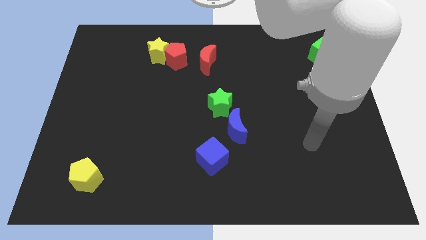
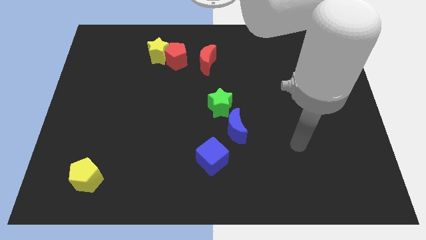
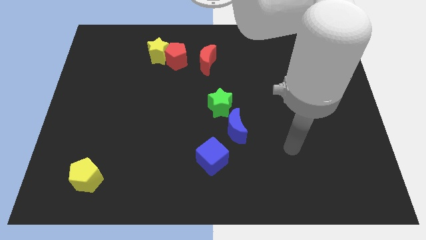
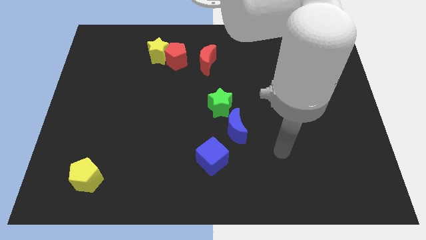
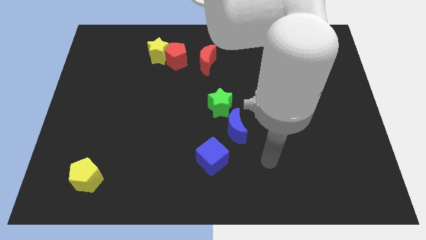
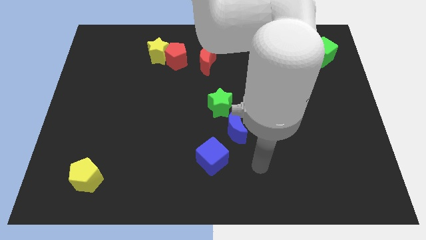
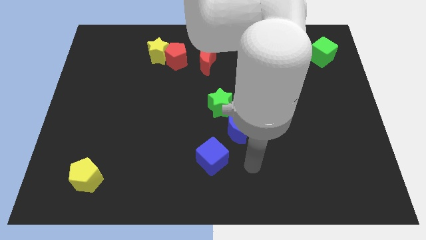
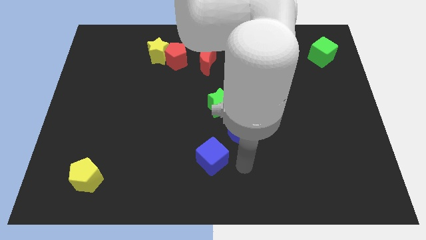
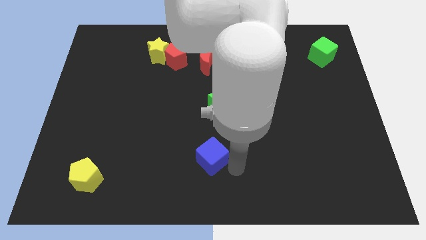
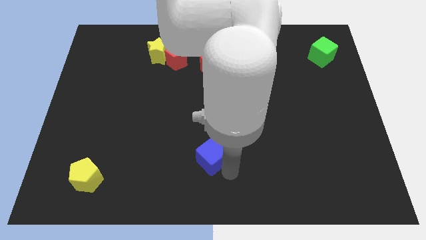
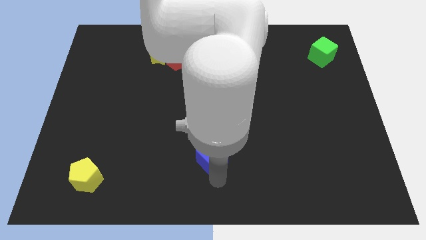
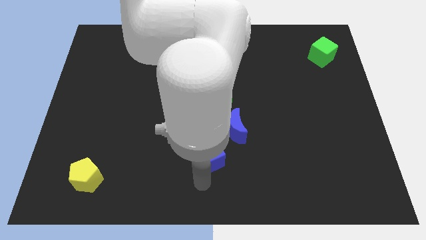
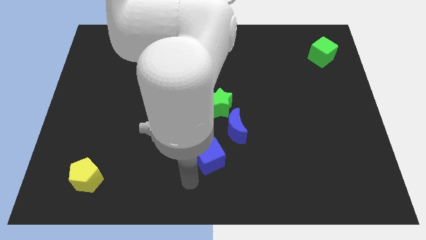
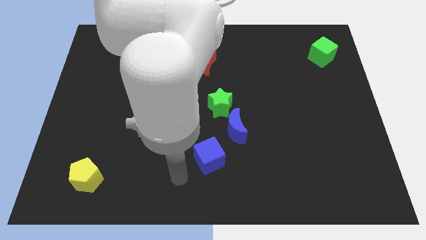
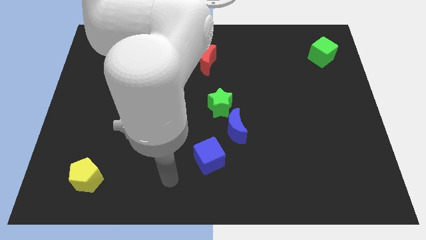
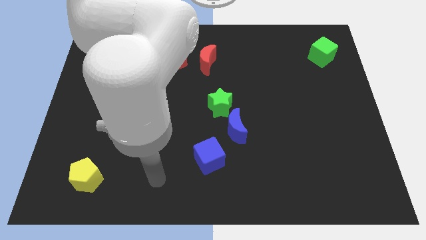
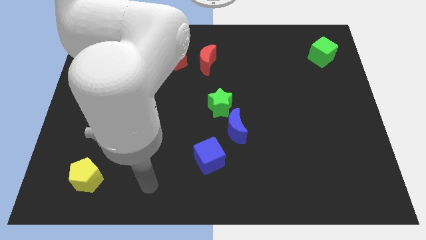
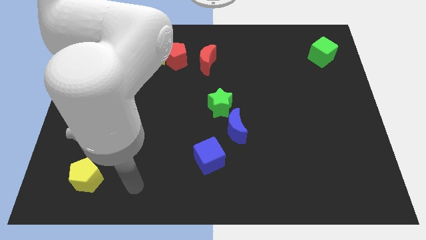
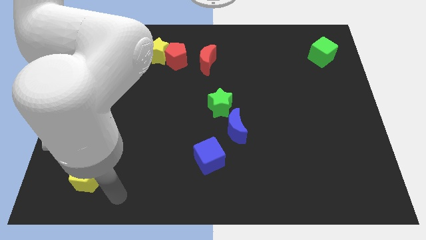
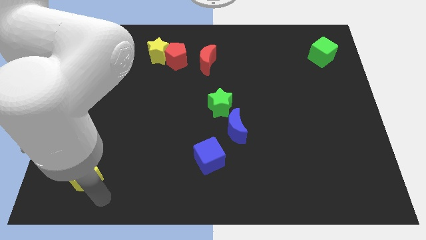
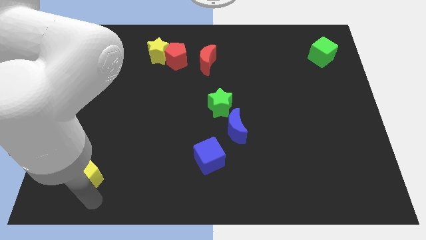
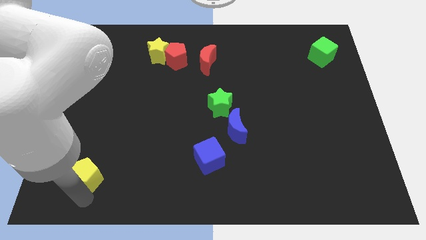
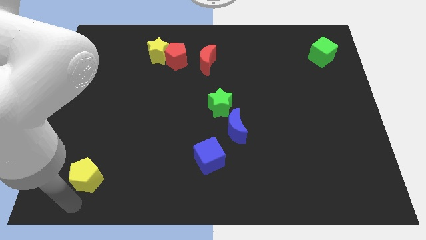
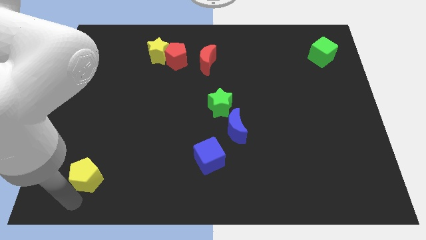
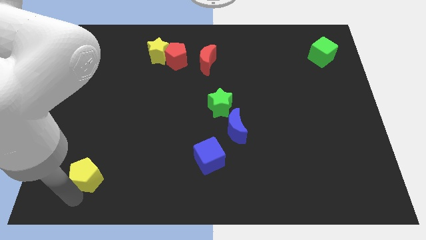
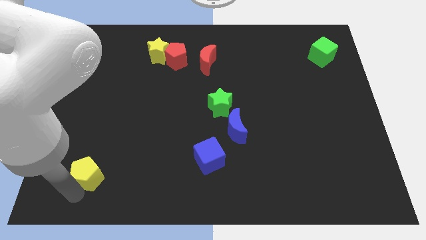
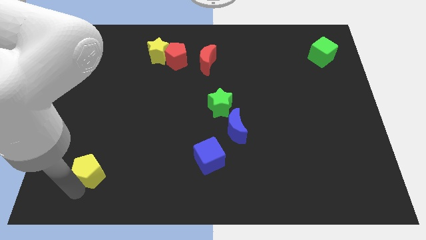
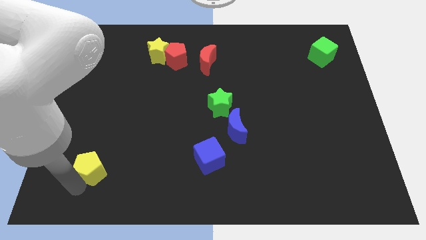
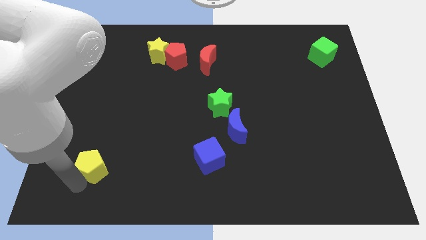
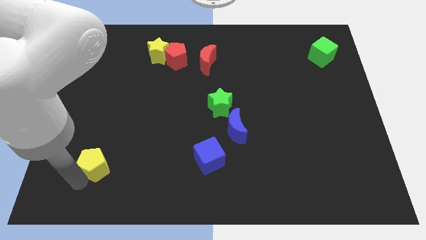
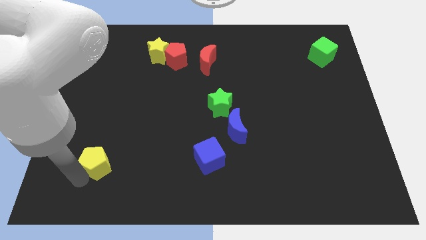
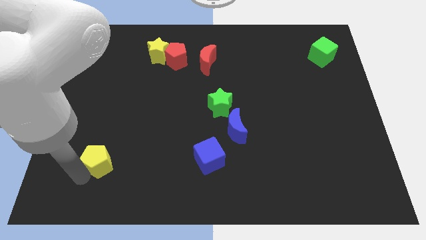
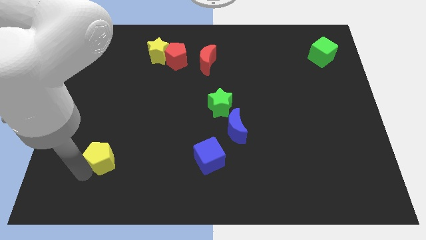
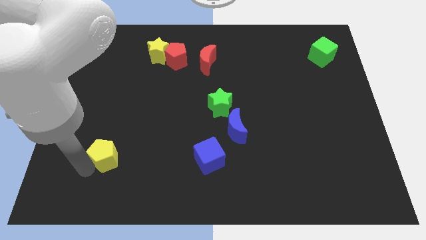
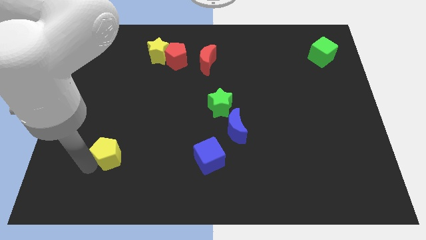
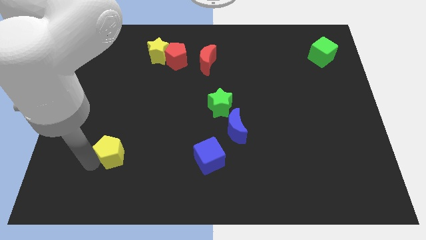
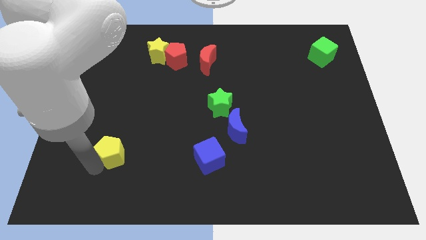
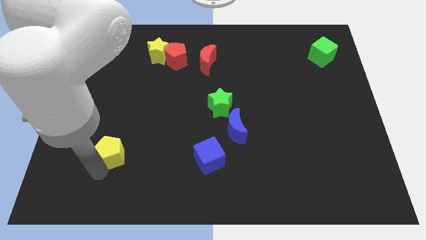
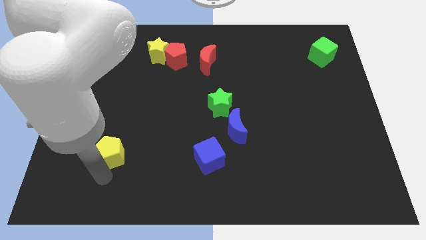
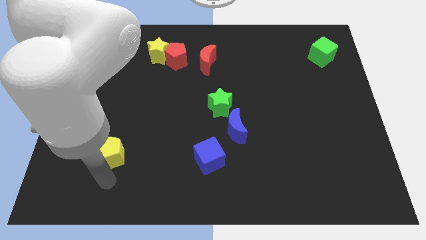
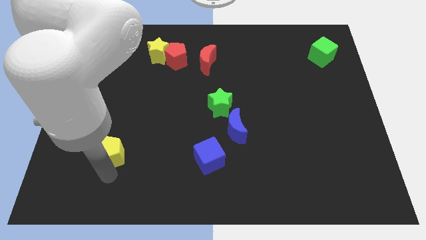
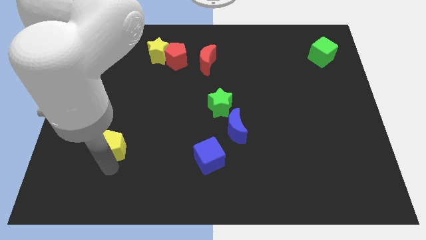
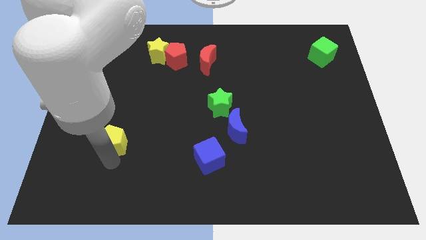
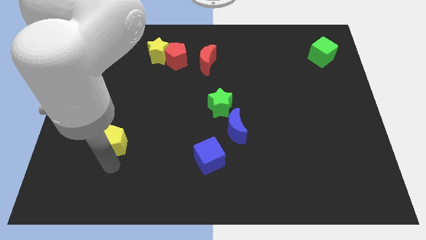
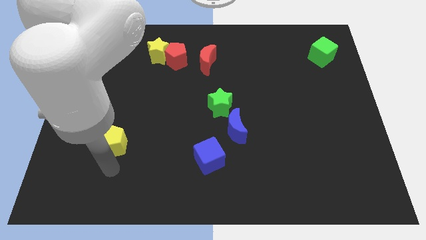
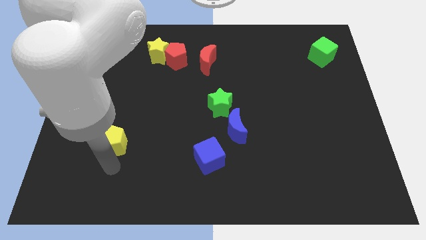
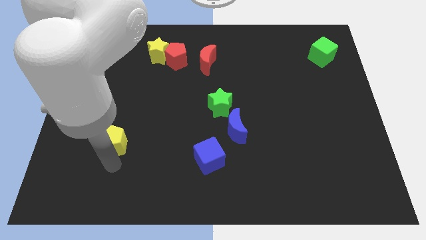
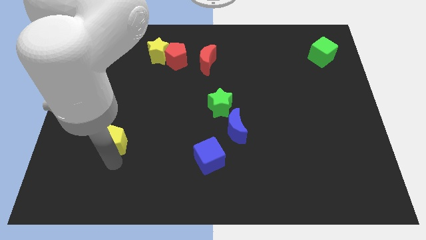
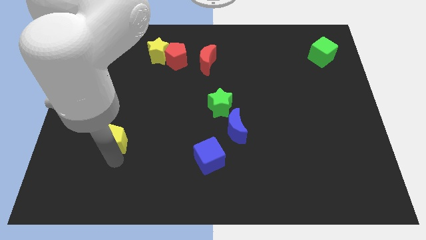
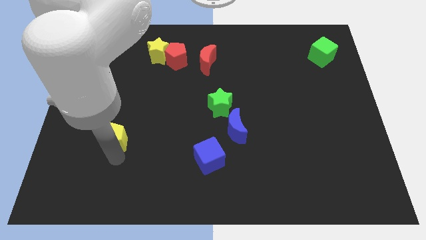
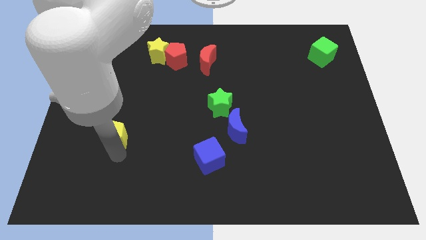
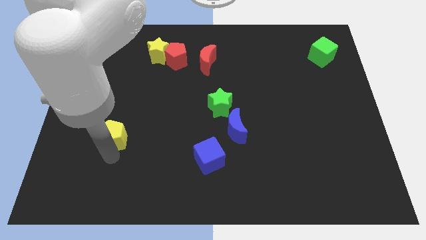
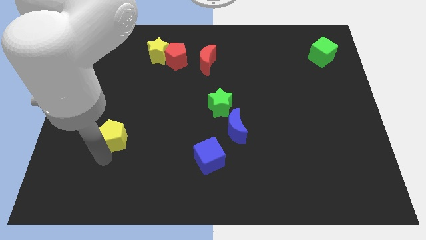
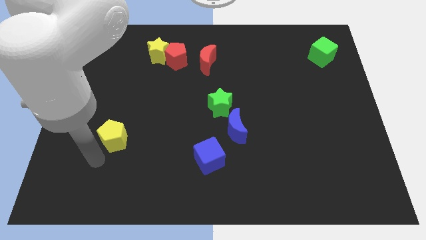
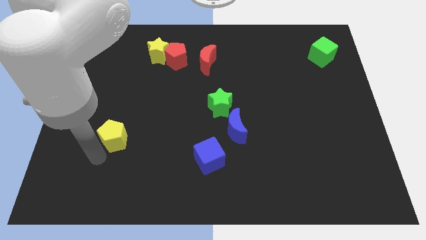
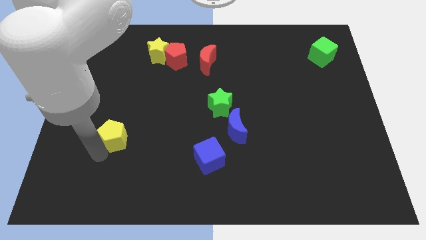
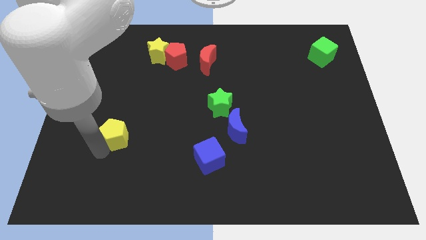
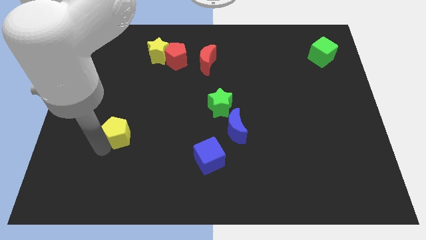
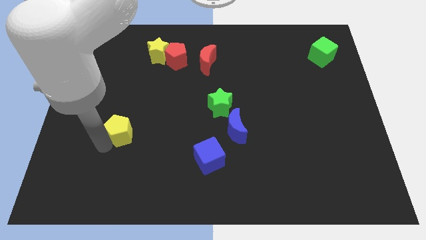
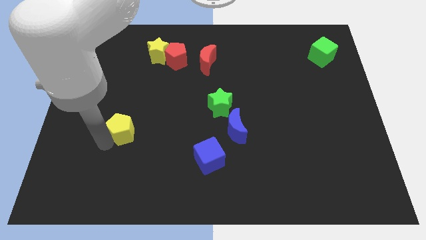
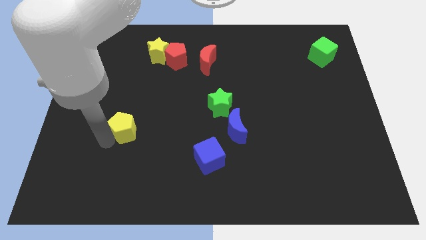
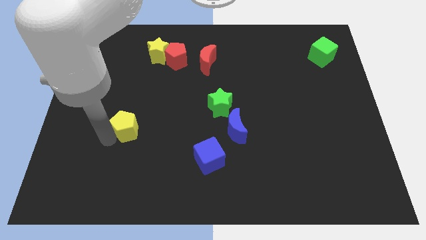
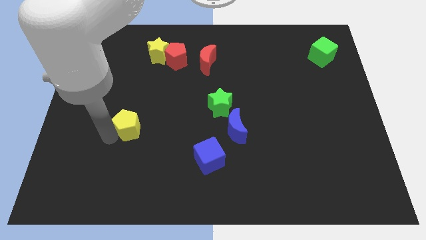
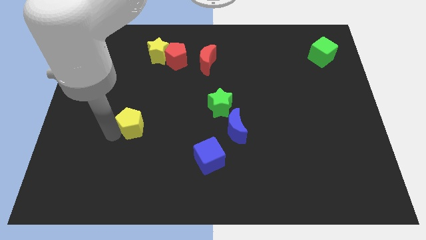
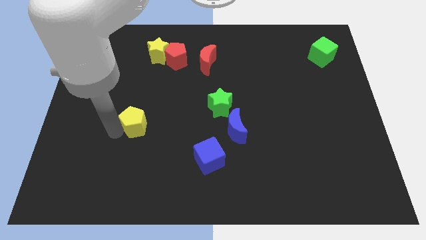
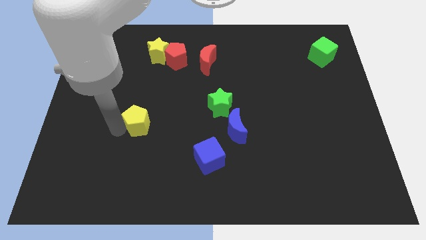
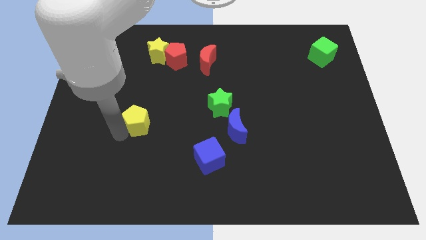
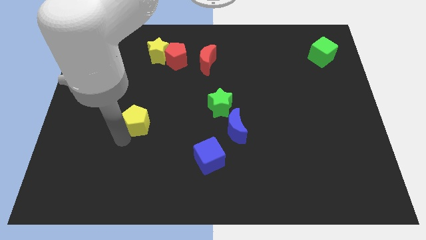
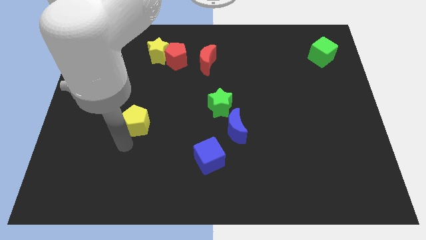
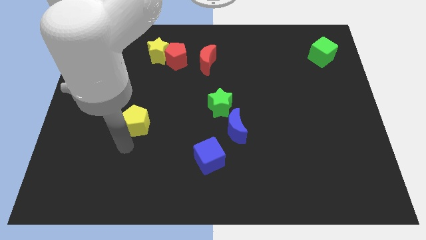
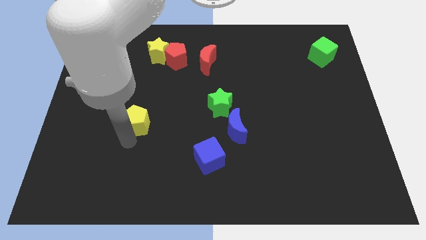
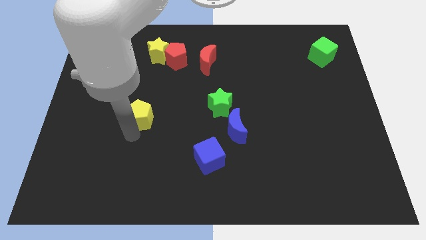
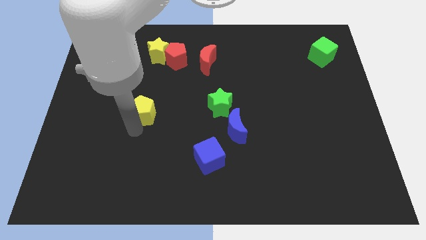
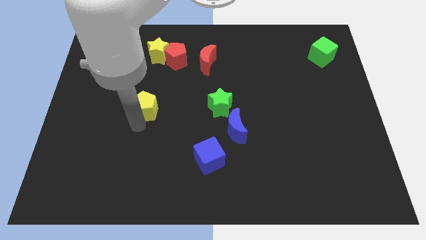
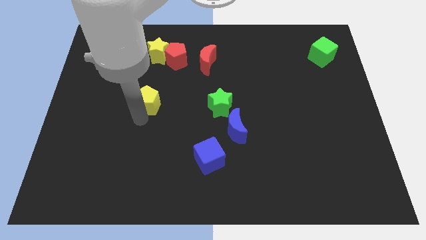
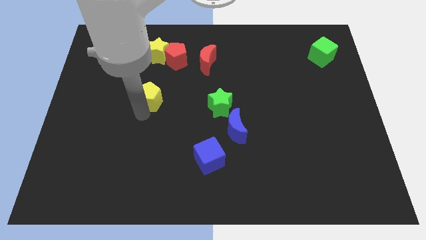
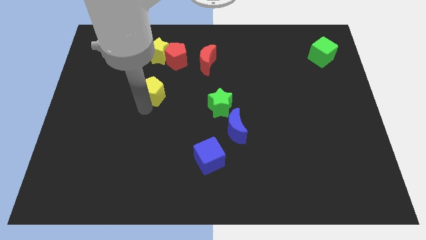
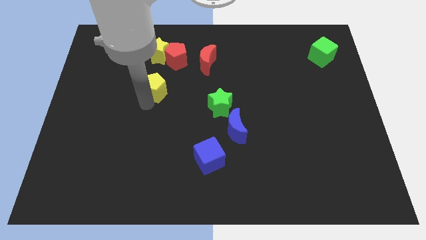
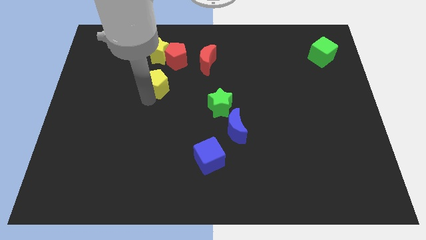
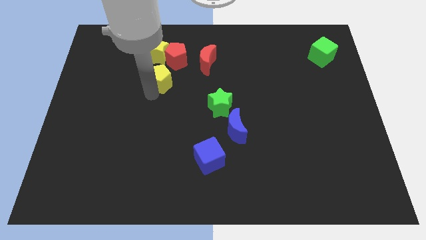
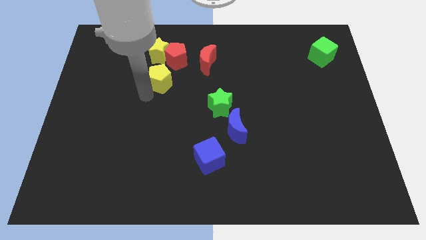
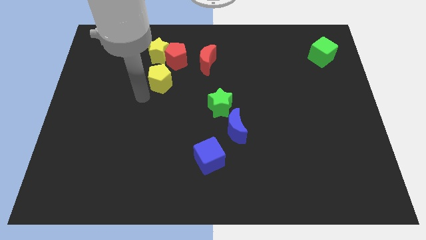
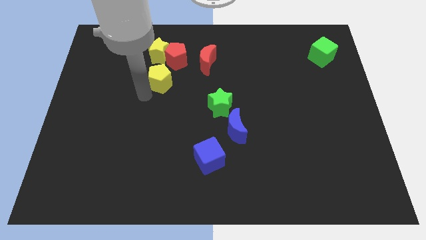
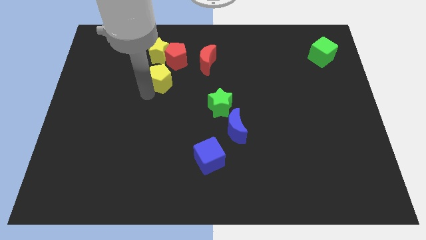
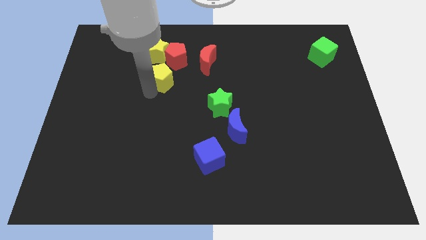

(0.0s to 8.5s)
slide the yellow pentagon to the bottom right of the yellow star
